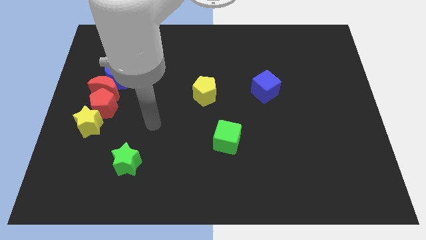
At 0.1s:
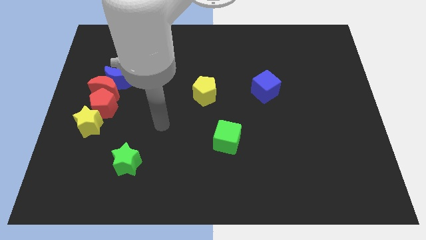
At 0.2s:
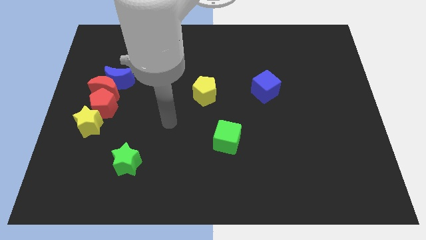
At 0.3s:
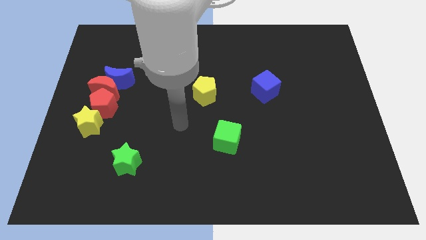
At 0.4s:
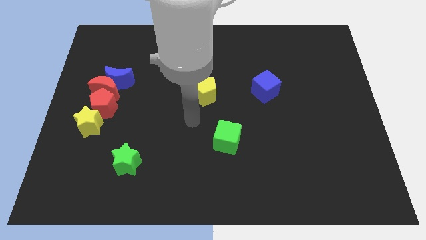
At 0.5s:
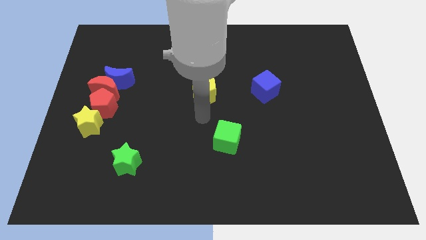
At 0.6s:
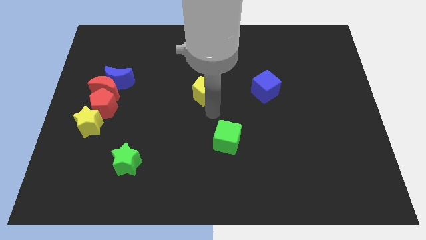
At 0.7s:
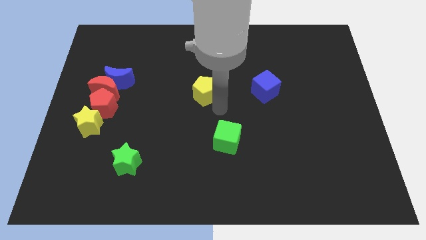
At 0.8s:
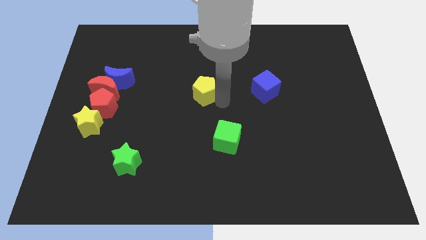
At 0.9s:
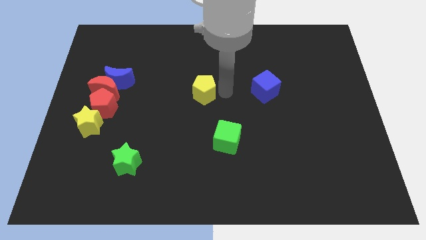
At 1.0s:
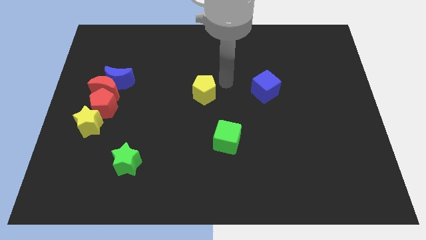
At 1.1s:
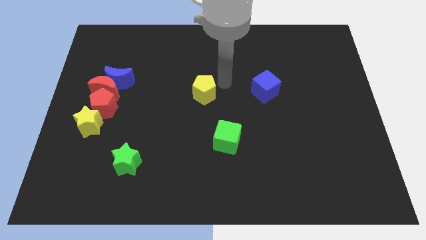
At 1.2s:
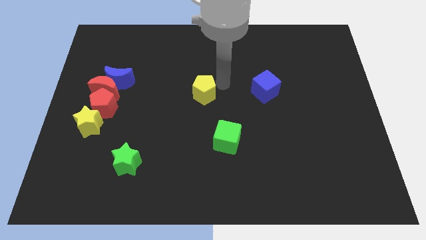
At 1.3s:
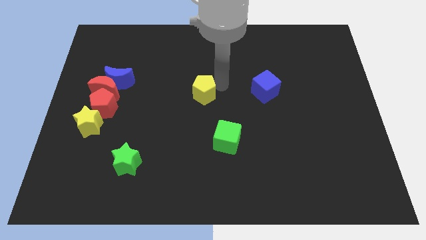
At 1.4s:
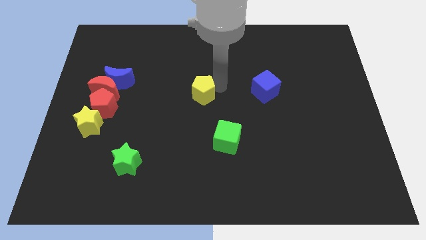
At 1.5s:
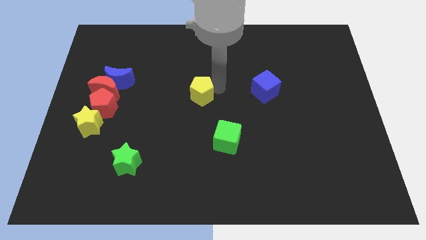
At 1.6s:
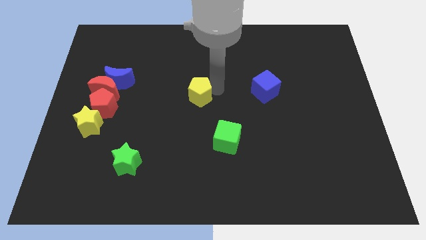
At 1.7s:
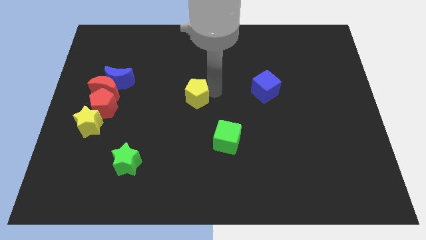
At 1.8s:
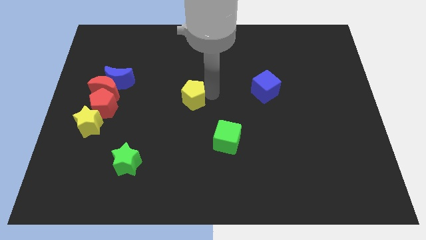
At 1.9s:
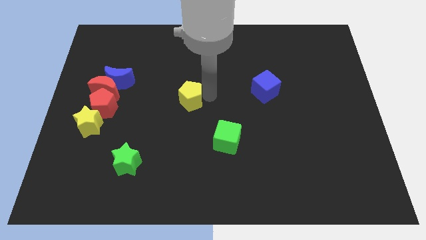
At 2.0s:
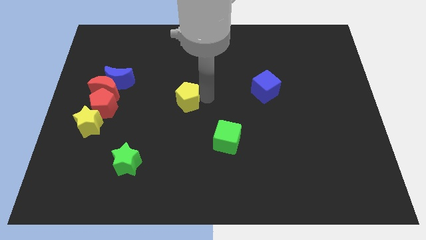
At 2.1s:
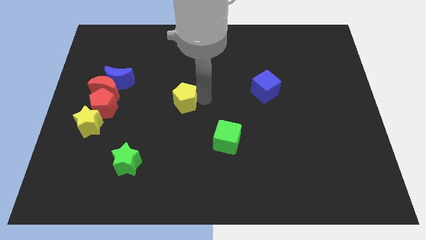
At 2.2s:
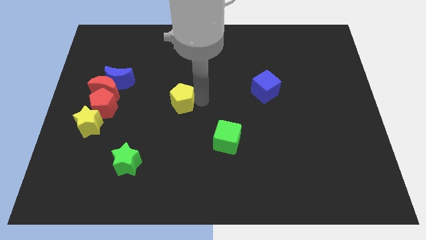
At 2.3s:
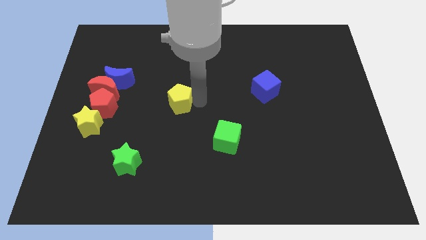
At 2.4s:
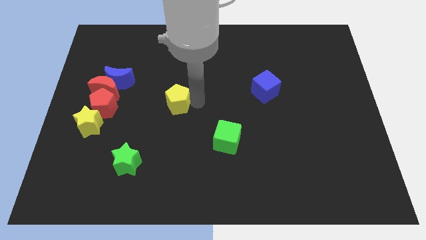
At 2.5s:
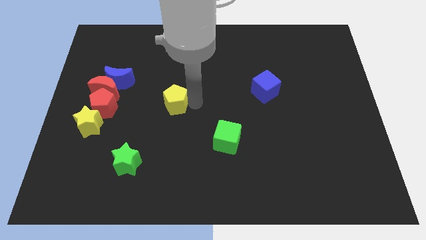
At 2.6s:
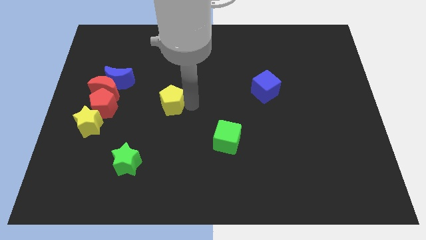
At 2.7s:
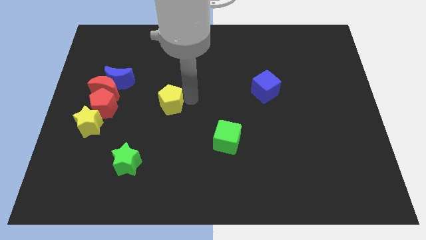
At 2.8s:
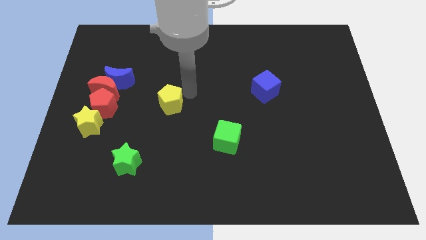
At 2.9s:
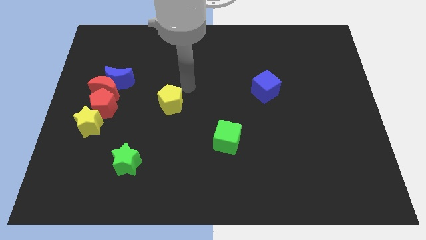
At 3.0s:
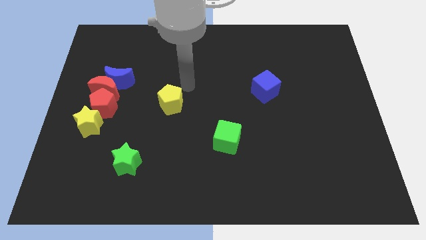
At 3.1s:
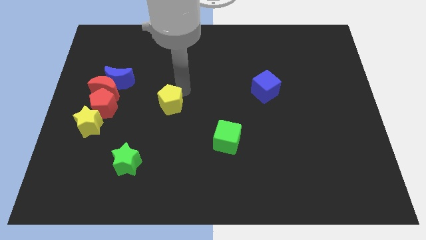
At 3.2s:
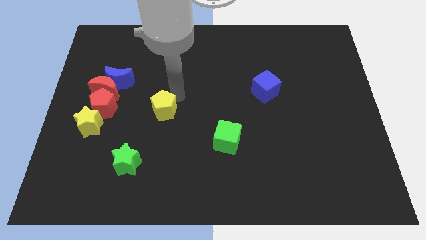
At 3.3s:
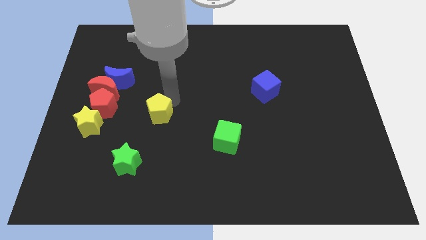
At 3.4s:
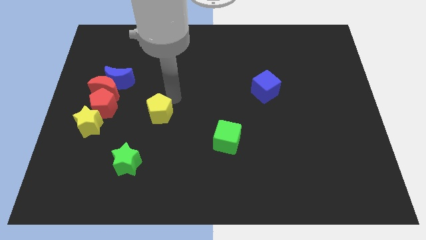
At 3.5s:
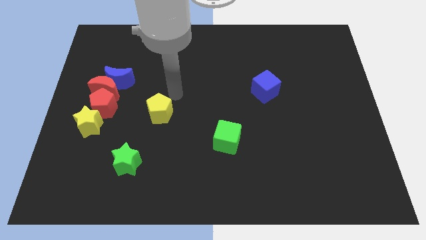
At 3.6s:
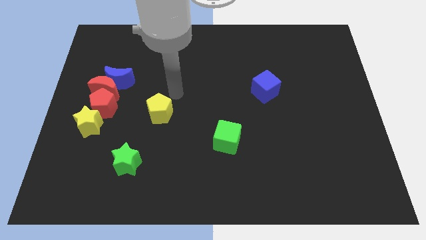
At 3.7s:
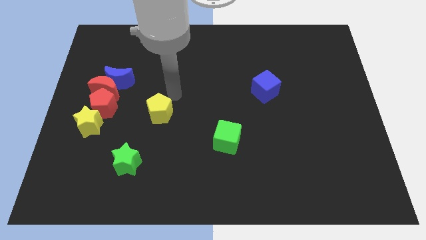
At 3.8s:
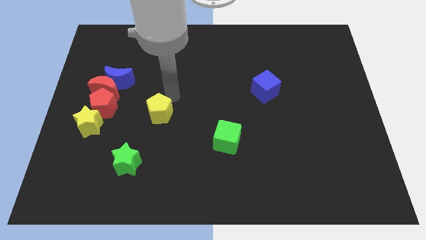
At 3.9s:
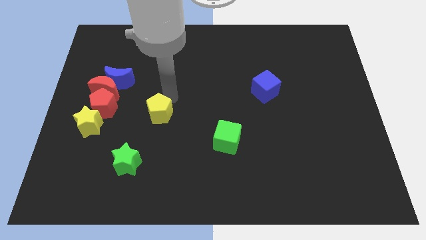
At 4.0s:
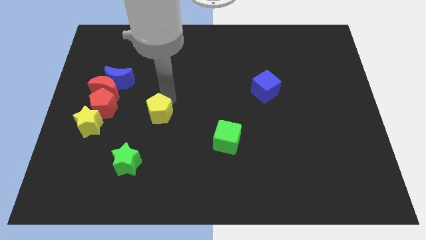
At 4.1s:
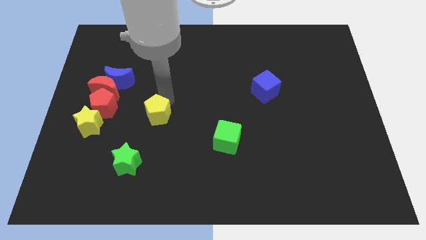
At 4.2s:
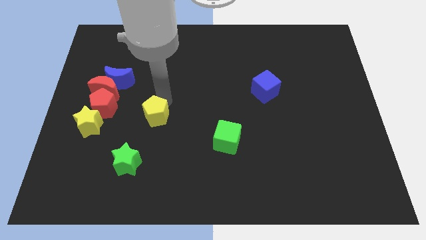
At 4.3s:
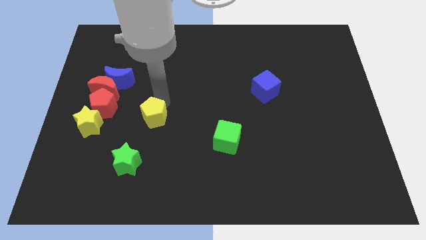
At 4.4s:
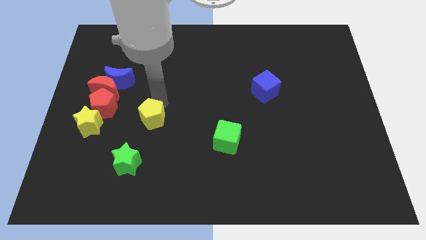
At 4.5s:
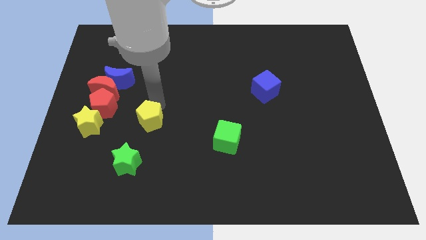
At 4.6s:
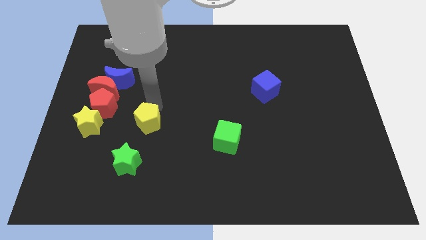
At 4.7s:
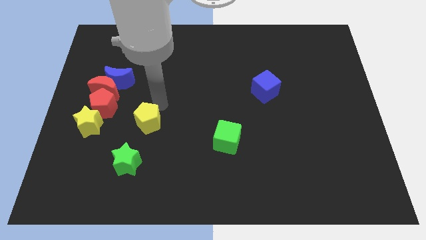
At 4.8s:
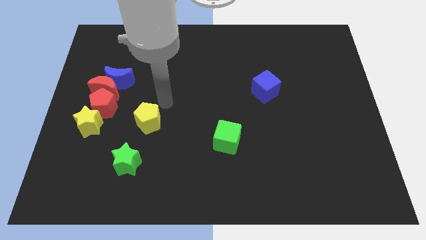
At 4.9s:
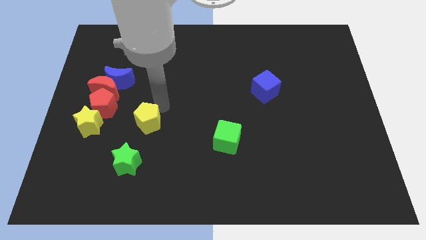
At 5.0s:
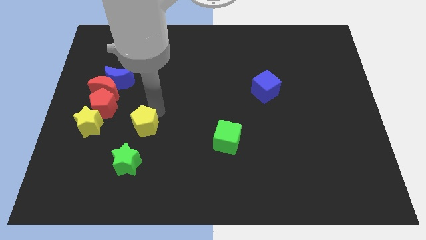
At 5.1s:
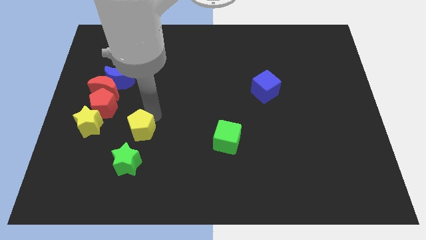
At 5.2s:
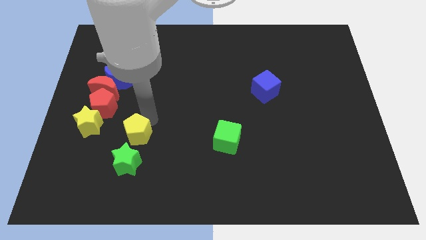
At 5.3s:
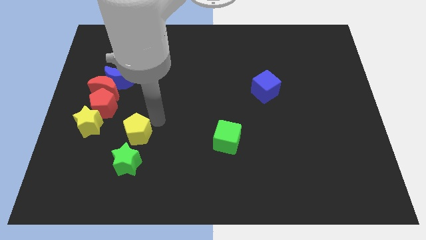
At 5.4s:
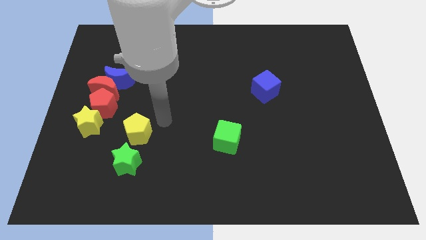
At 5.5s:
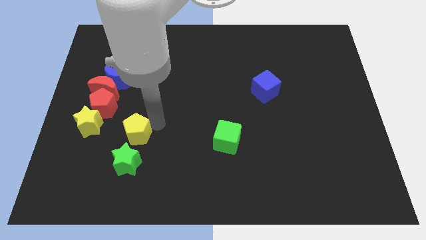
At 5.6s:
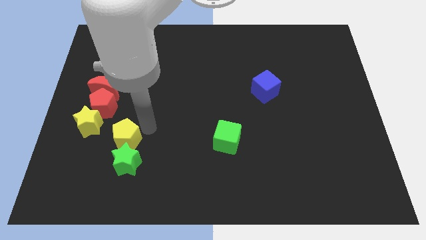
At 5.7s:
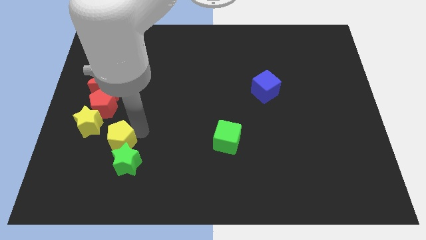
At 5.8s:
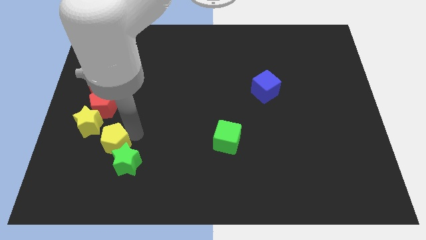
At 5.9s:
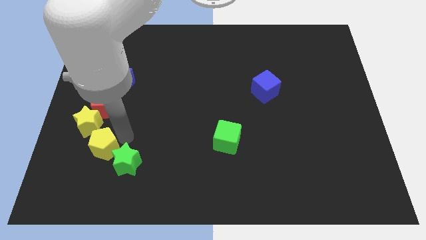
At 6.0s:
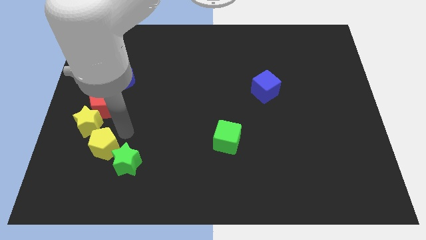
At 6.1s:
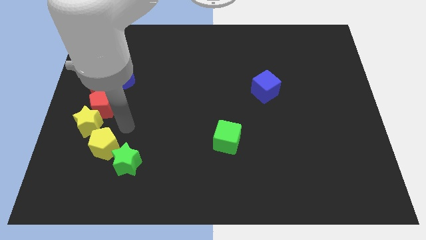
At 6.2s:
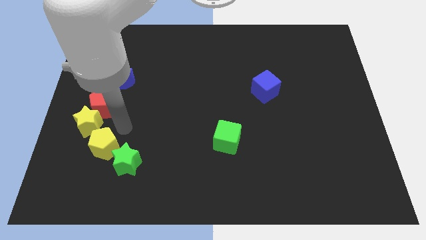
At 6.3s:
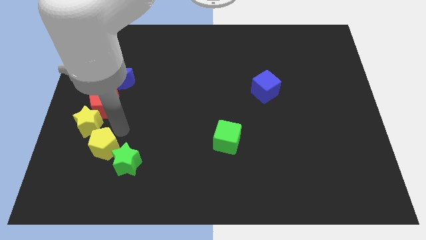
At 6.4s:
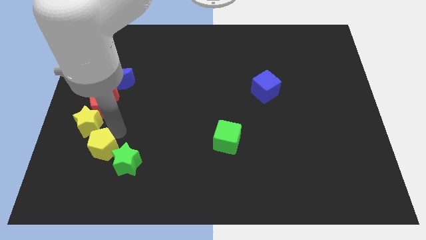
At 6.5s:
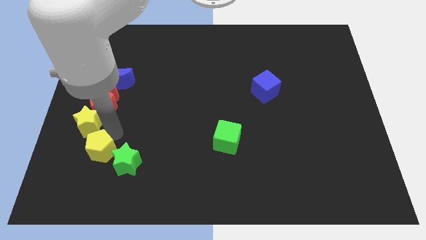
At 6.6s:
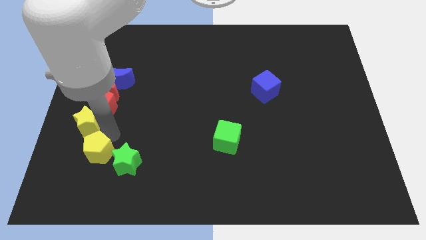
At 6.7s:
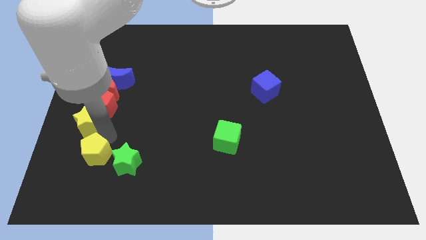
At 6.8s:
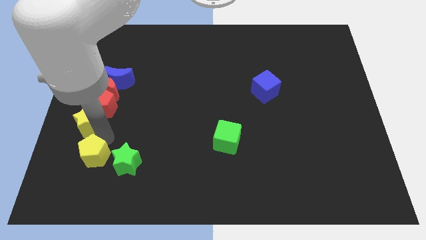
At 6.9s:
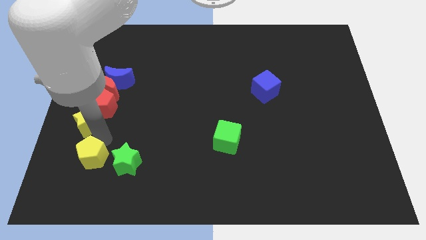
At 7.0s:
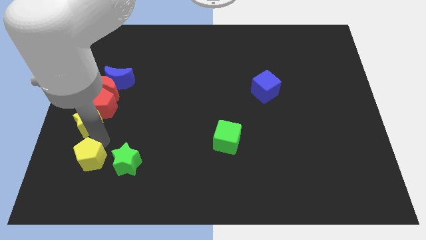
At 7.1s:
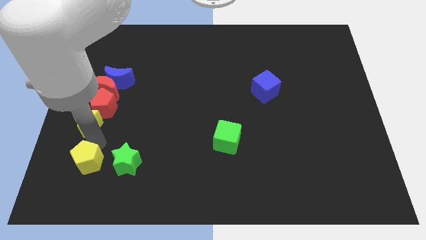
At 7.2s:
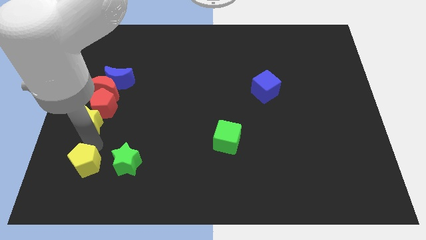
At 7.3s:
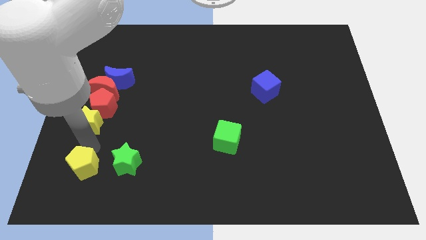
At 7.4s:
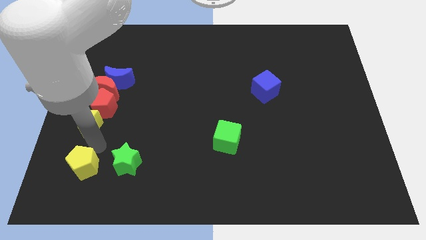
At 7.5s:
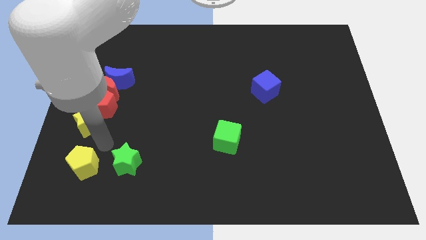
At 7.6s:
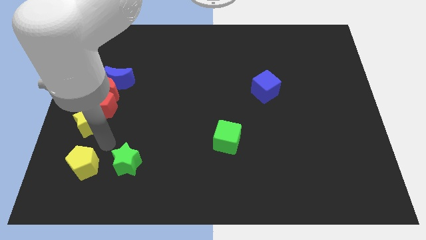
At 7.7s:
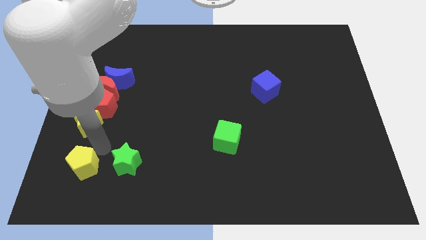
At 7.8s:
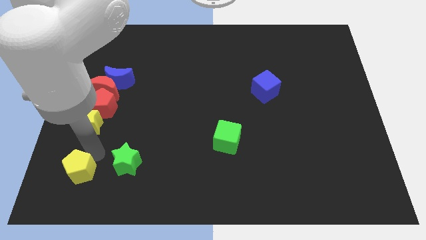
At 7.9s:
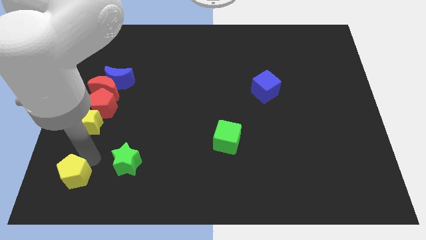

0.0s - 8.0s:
push the yellow pentagon to the lower left corner
